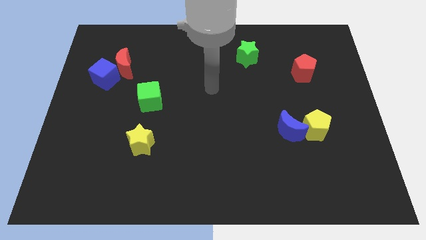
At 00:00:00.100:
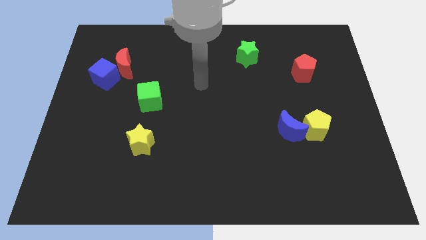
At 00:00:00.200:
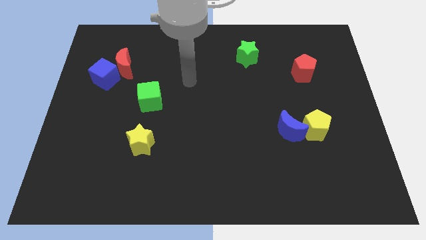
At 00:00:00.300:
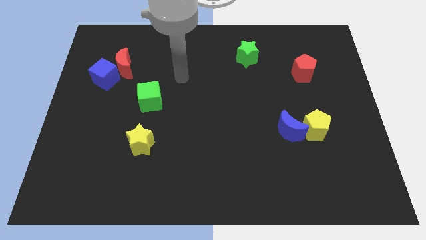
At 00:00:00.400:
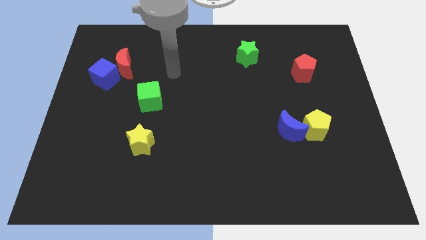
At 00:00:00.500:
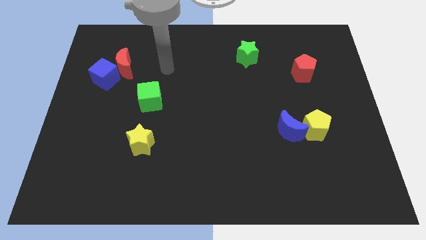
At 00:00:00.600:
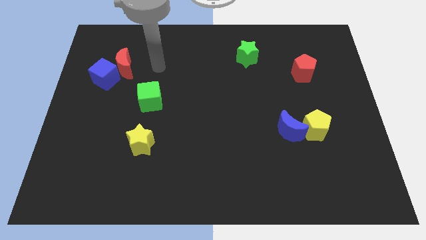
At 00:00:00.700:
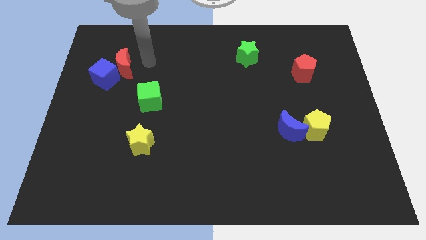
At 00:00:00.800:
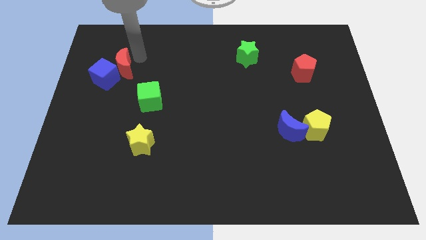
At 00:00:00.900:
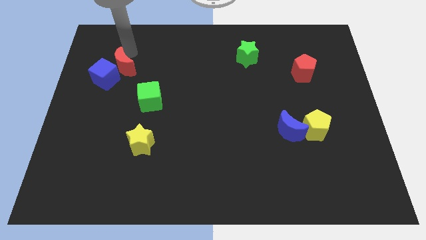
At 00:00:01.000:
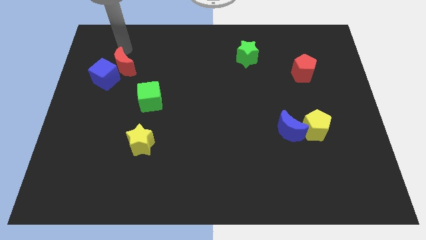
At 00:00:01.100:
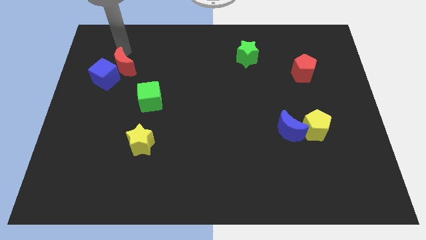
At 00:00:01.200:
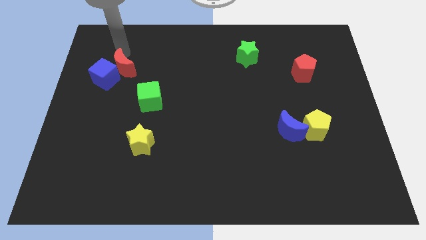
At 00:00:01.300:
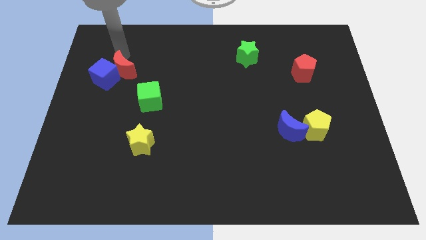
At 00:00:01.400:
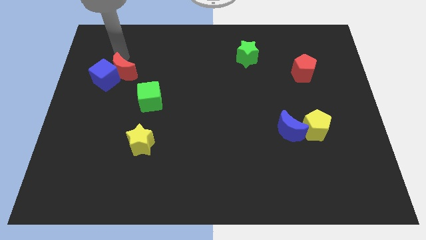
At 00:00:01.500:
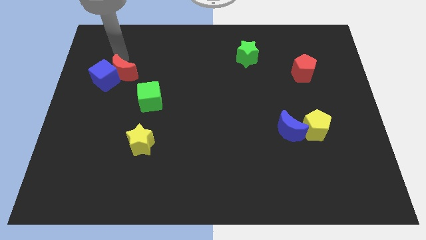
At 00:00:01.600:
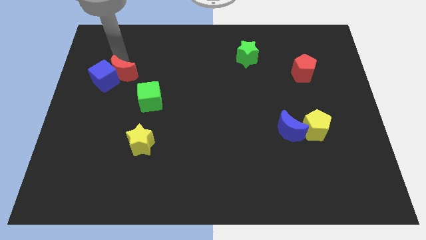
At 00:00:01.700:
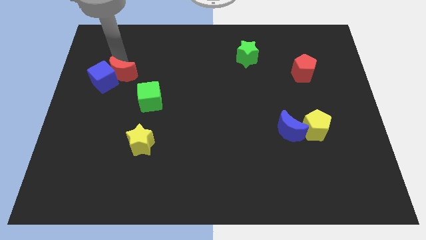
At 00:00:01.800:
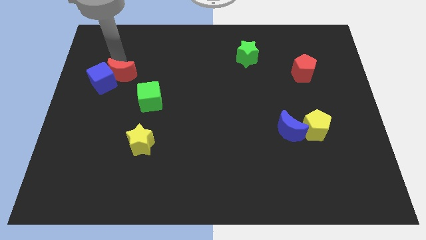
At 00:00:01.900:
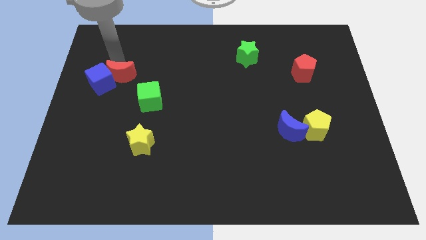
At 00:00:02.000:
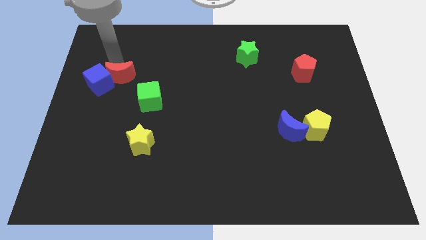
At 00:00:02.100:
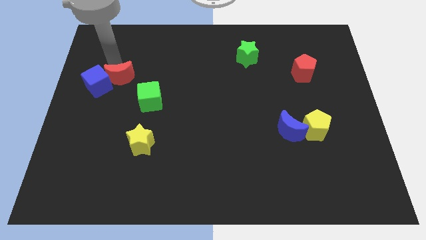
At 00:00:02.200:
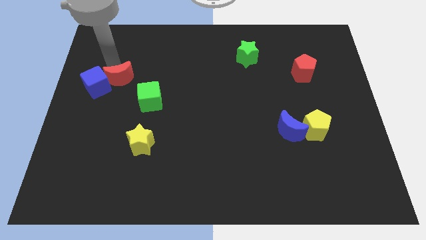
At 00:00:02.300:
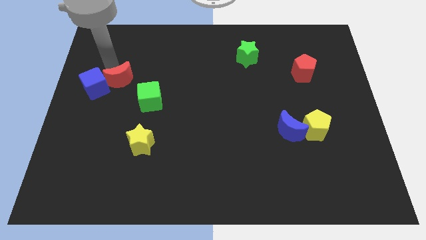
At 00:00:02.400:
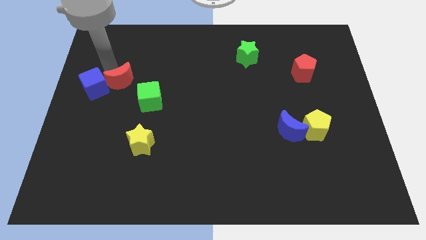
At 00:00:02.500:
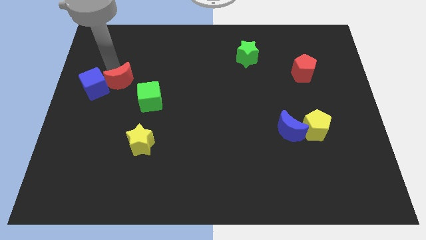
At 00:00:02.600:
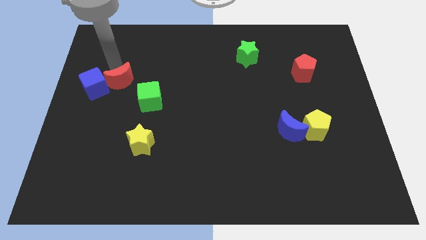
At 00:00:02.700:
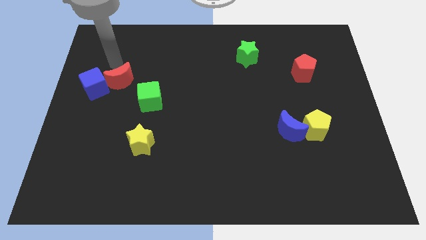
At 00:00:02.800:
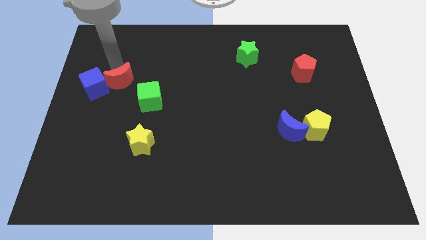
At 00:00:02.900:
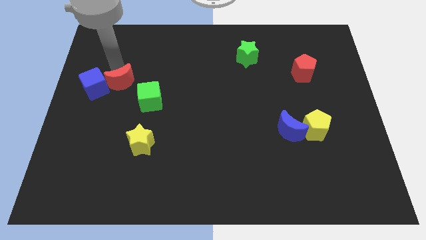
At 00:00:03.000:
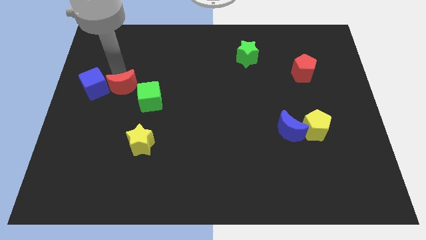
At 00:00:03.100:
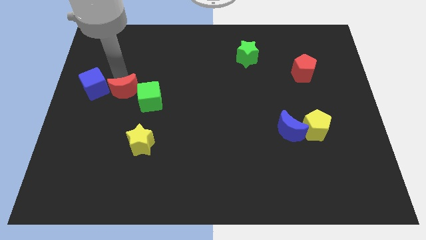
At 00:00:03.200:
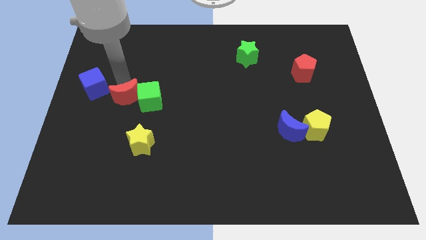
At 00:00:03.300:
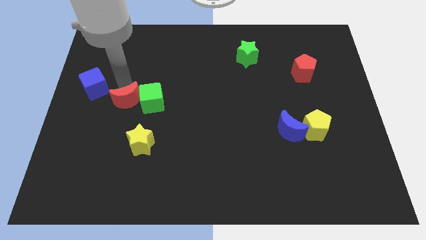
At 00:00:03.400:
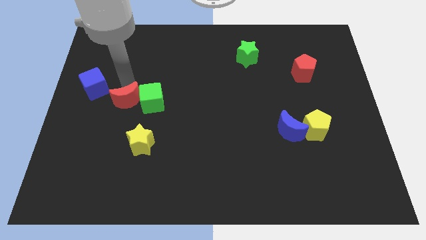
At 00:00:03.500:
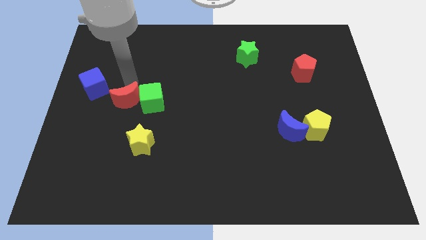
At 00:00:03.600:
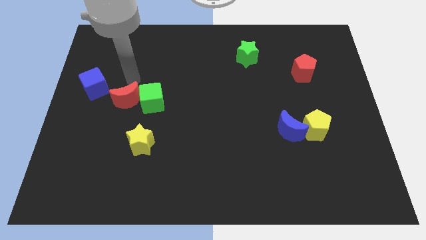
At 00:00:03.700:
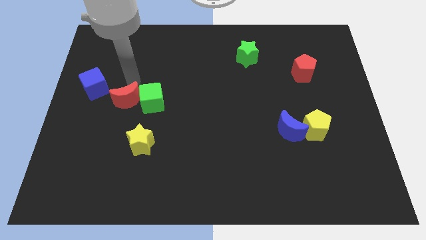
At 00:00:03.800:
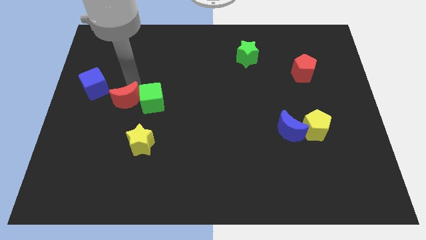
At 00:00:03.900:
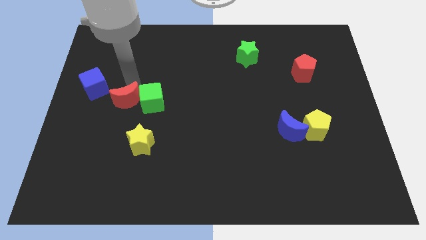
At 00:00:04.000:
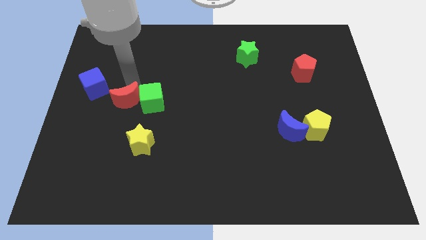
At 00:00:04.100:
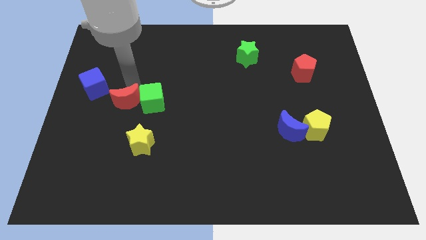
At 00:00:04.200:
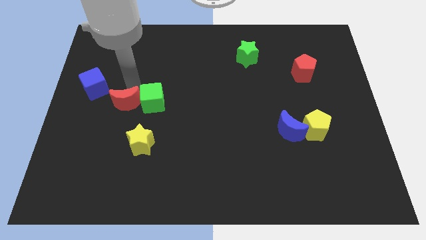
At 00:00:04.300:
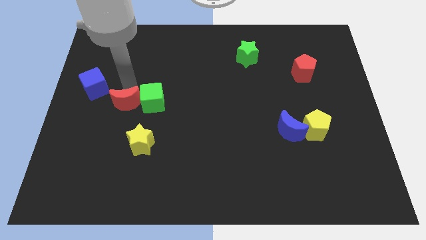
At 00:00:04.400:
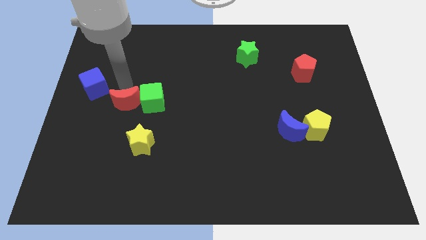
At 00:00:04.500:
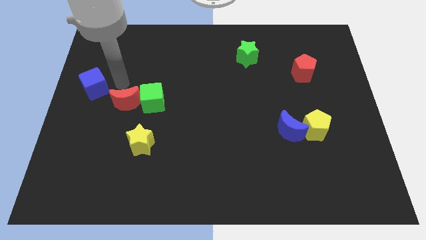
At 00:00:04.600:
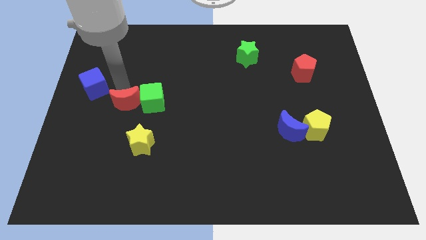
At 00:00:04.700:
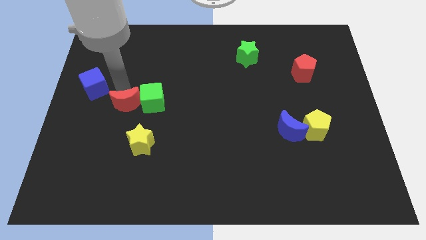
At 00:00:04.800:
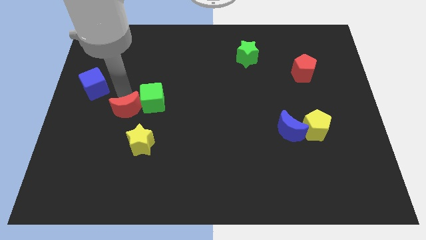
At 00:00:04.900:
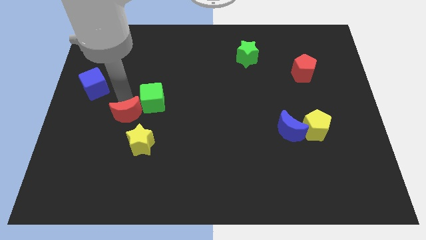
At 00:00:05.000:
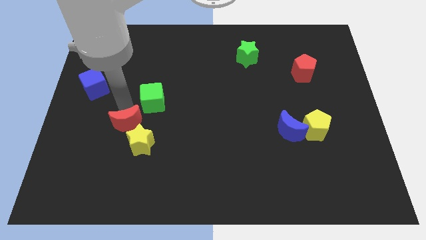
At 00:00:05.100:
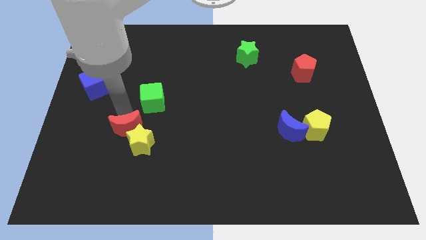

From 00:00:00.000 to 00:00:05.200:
slide the red moon to the yellow star

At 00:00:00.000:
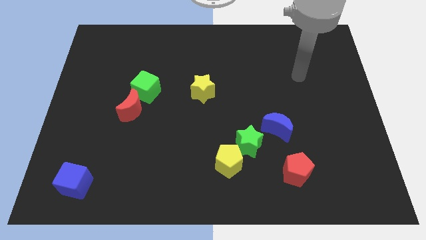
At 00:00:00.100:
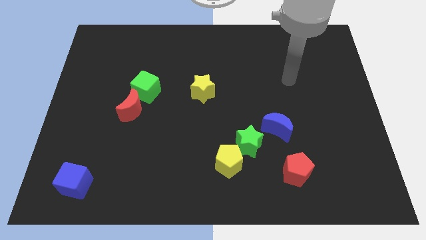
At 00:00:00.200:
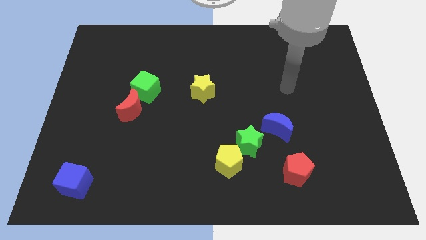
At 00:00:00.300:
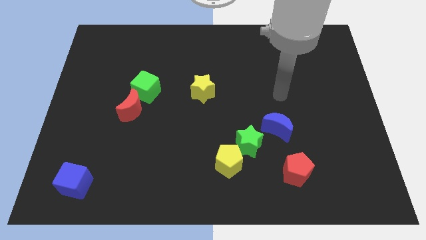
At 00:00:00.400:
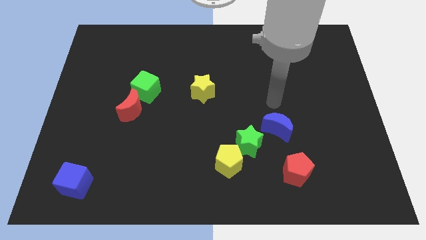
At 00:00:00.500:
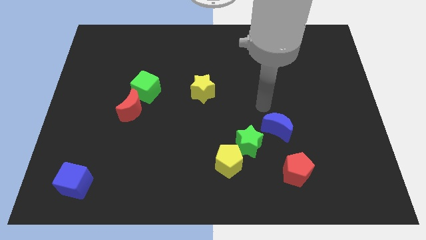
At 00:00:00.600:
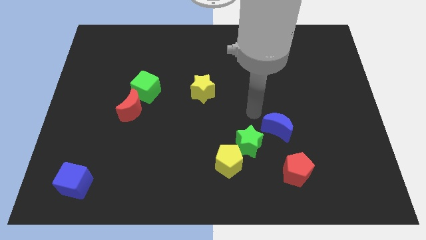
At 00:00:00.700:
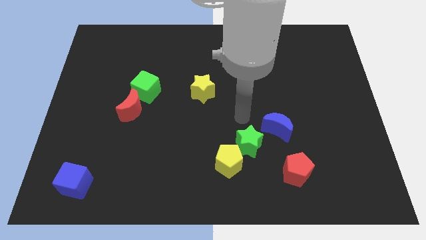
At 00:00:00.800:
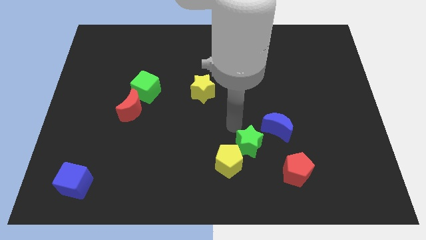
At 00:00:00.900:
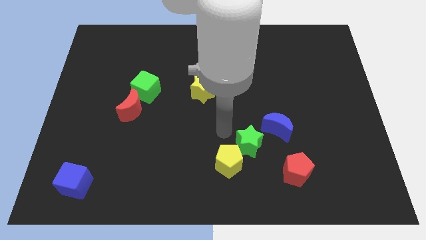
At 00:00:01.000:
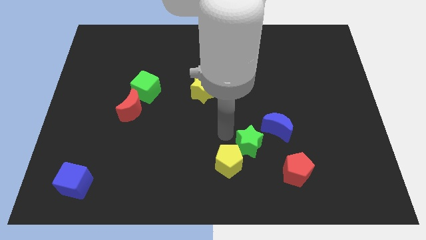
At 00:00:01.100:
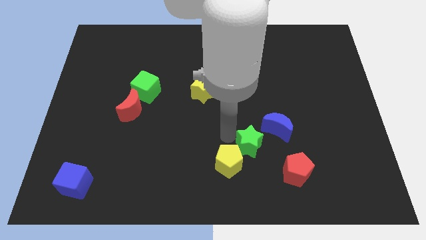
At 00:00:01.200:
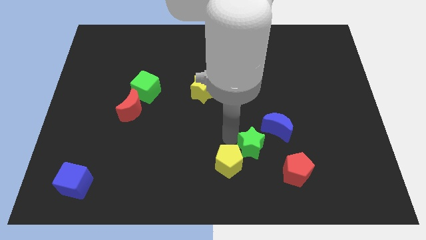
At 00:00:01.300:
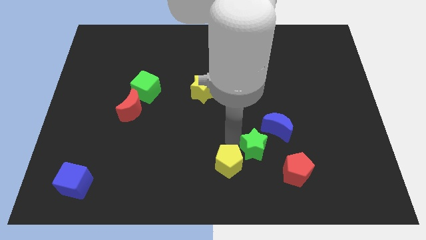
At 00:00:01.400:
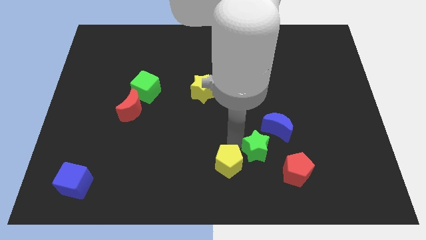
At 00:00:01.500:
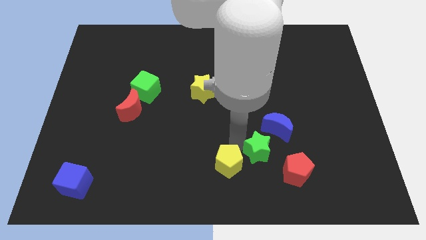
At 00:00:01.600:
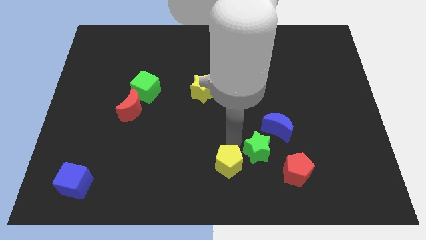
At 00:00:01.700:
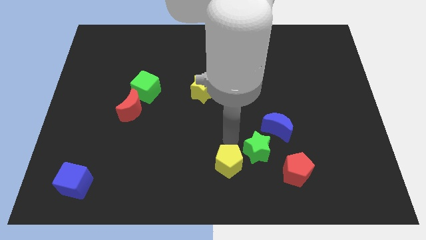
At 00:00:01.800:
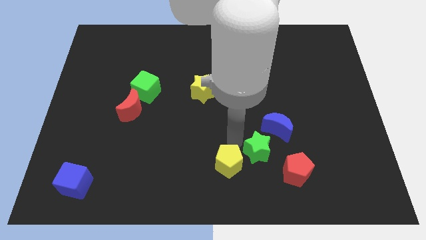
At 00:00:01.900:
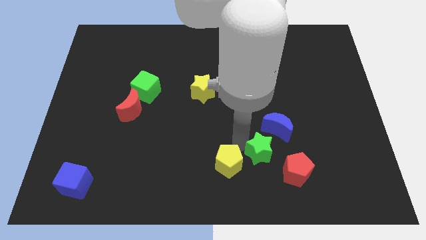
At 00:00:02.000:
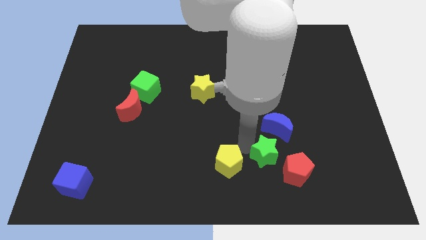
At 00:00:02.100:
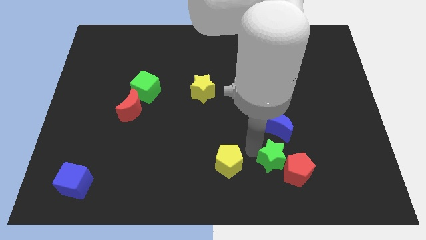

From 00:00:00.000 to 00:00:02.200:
push the green star towards the red pentagon
